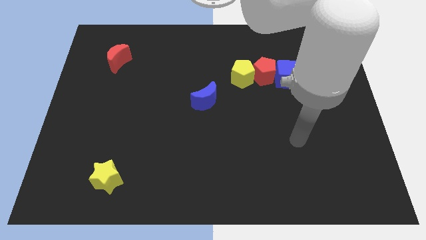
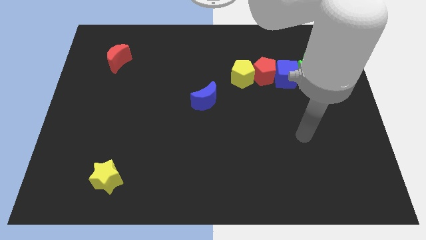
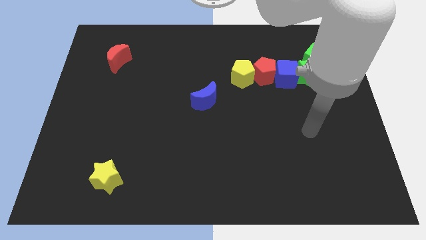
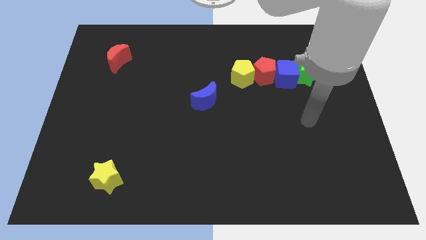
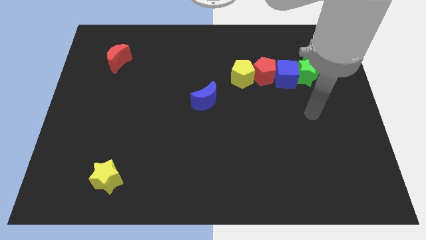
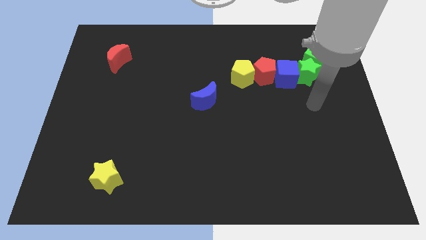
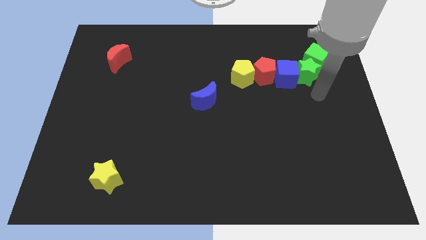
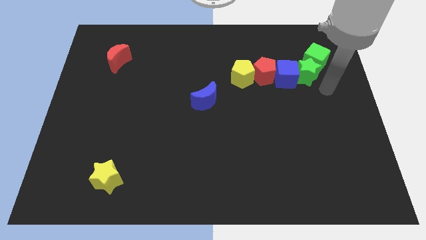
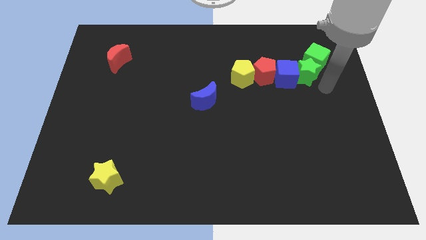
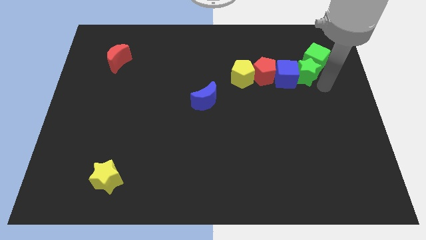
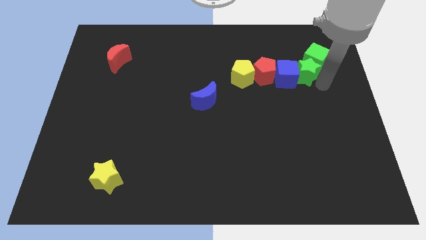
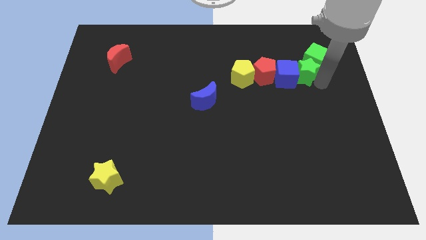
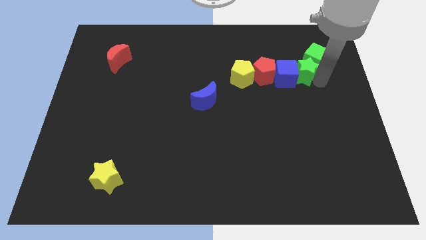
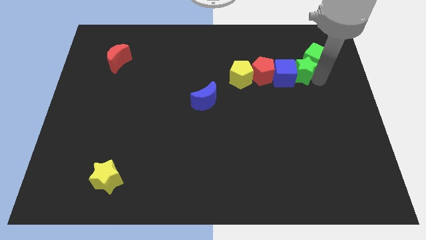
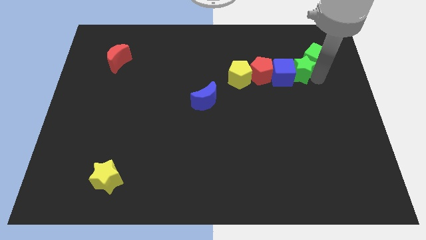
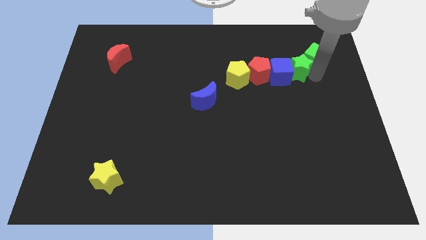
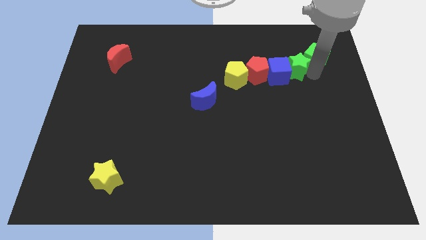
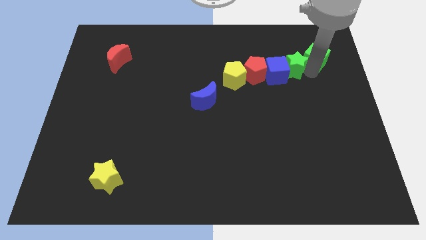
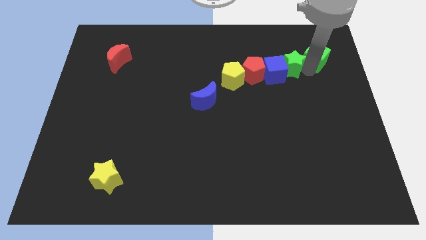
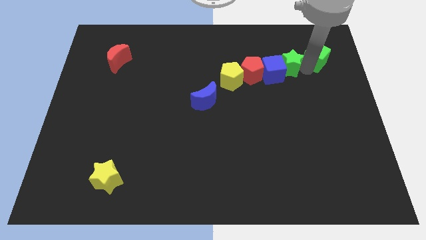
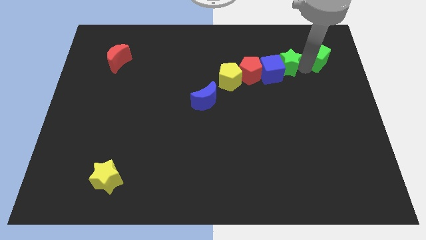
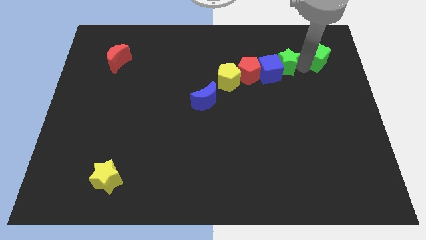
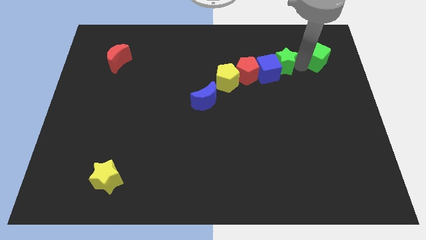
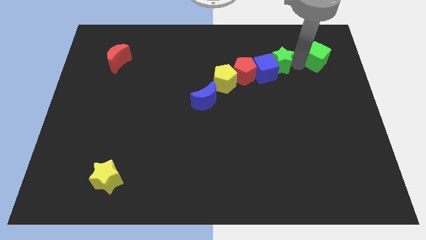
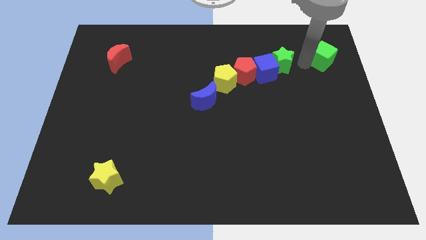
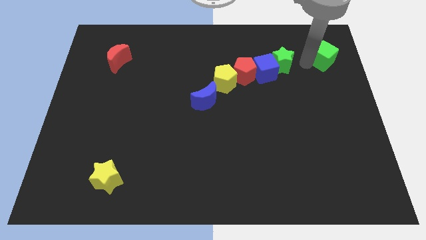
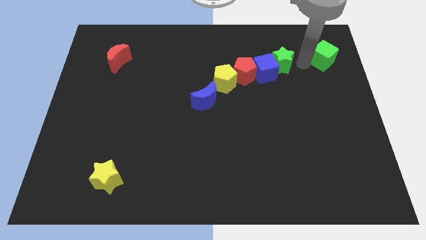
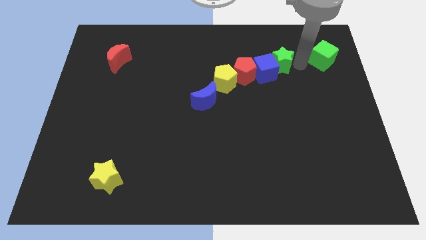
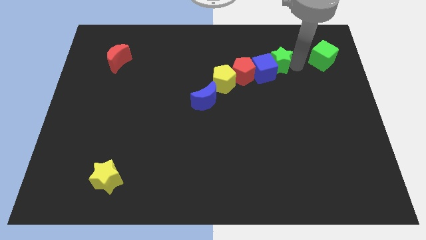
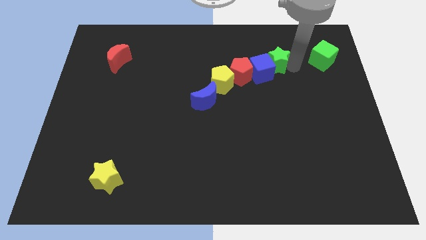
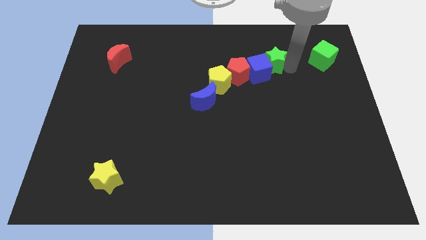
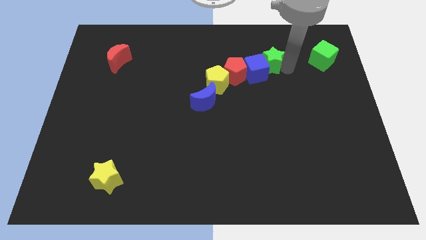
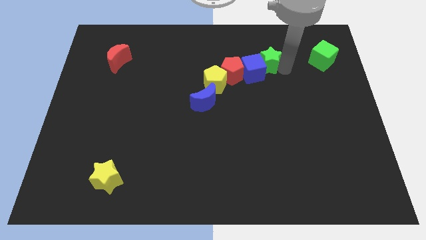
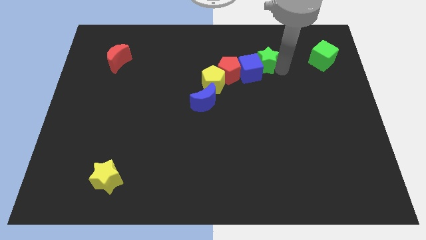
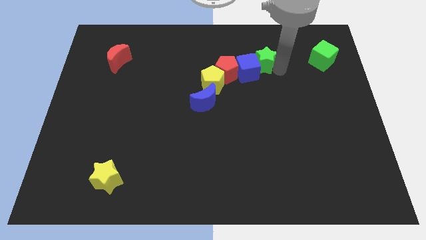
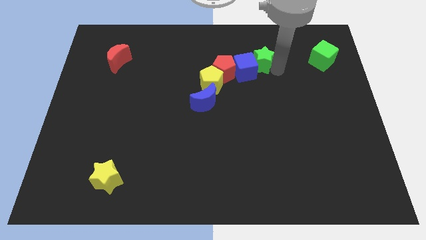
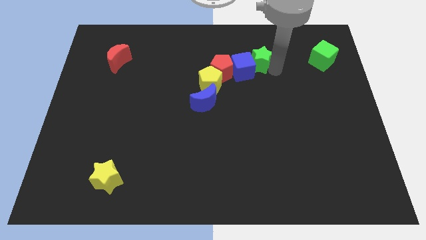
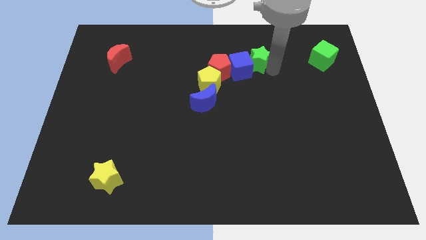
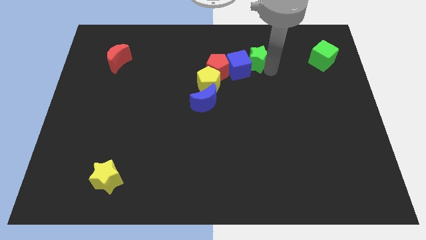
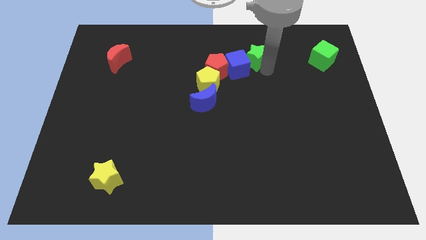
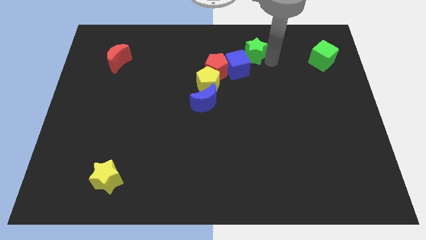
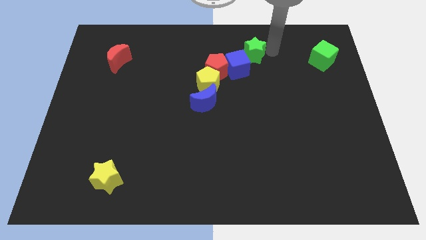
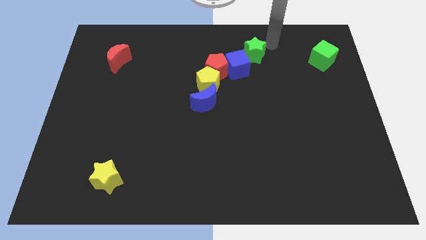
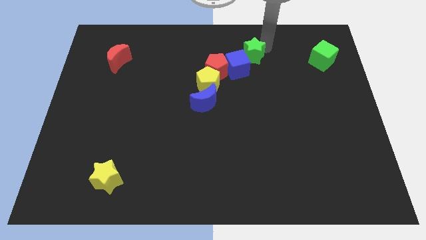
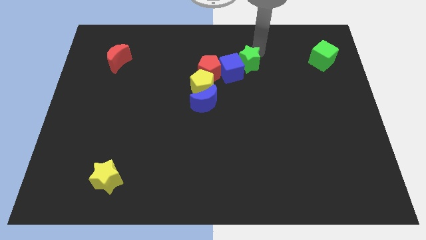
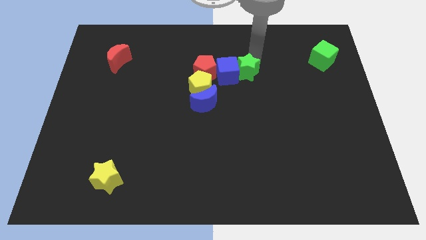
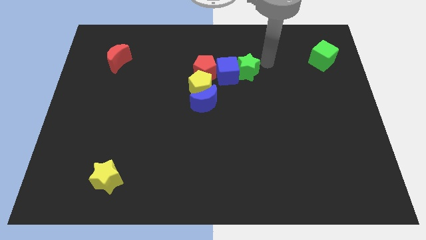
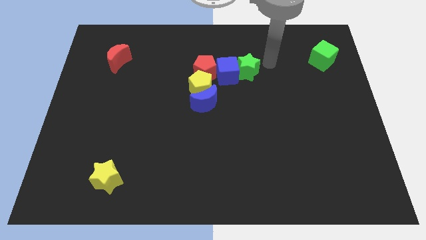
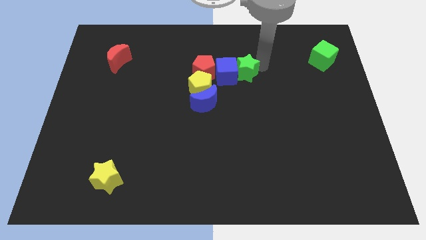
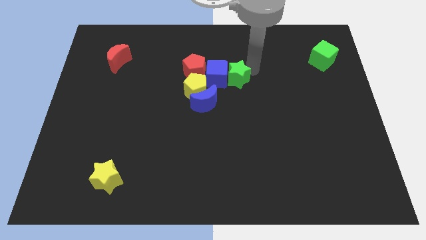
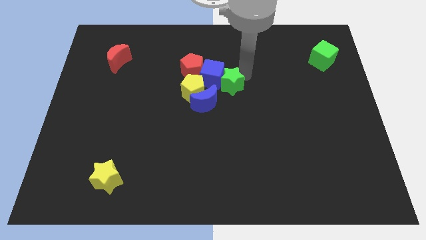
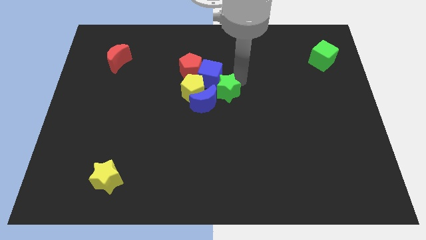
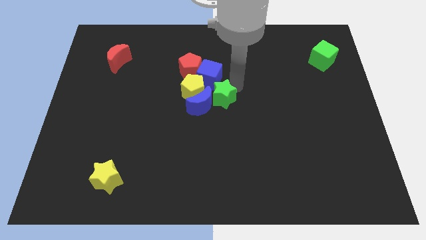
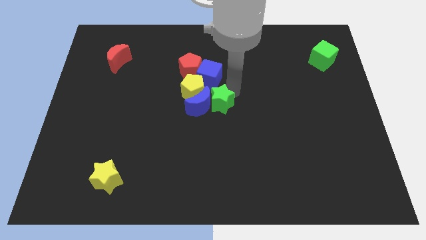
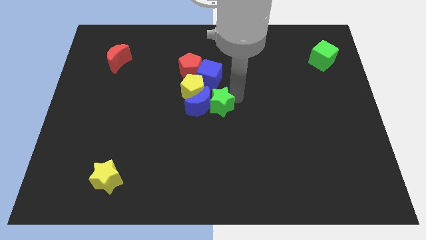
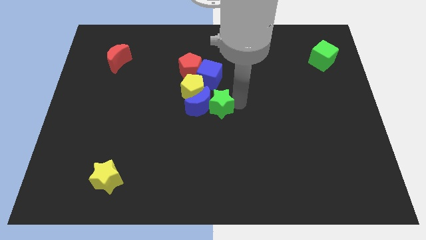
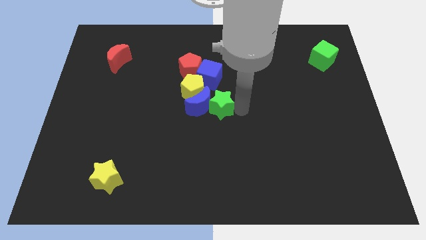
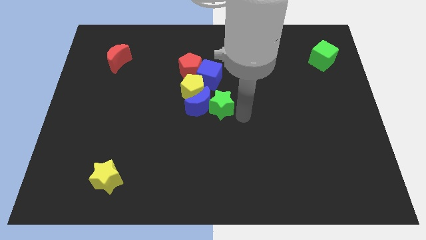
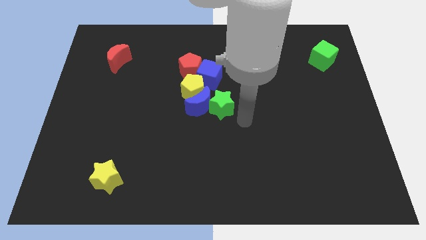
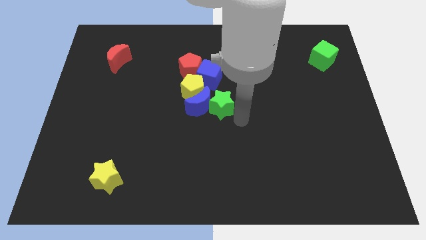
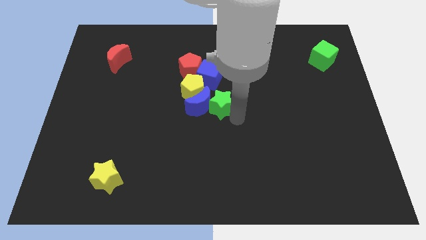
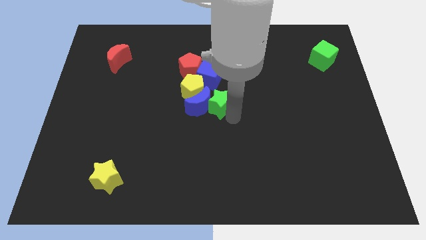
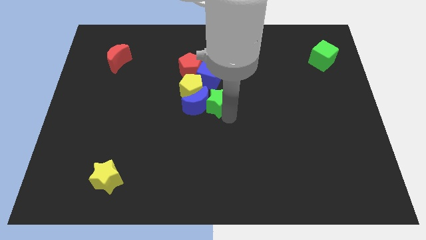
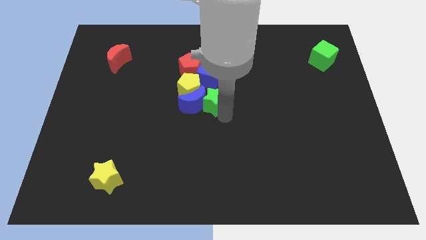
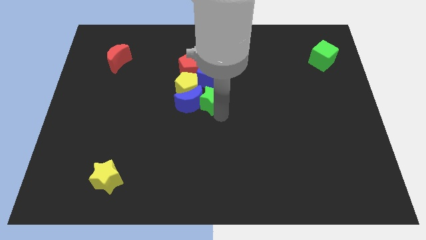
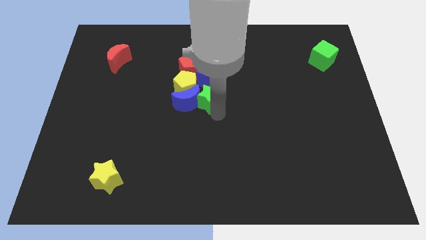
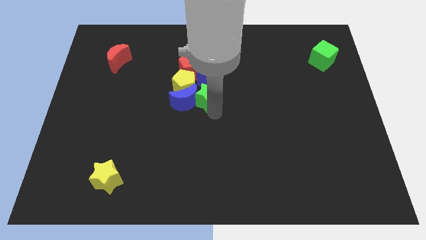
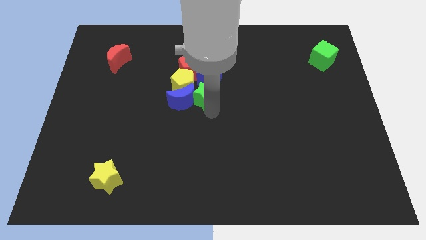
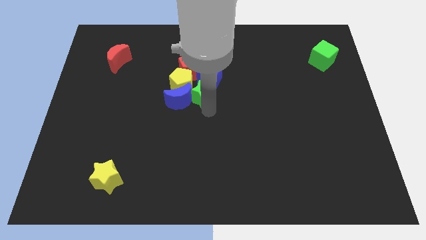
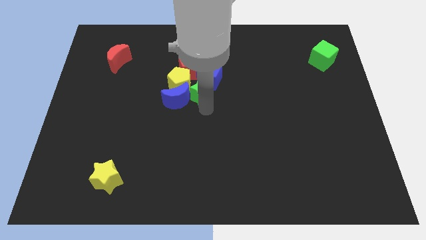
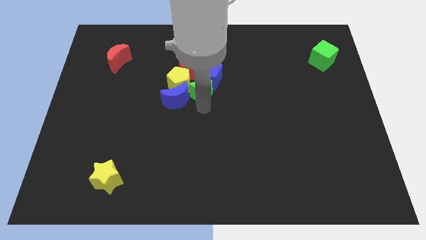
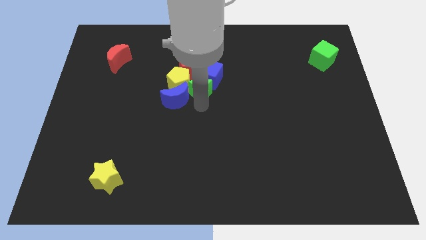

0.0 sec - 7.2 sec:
push the green star next to the yellow pentagon

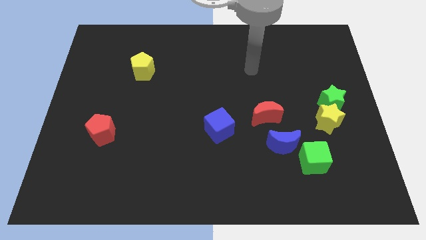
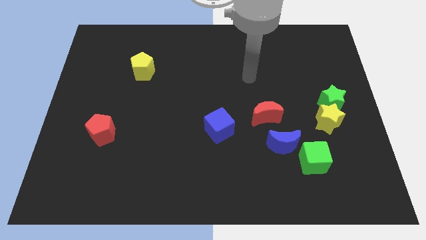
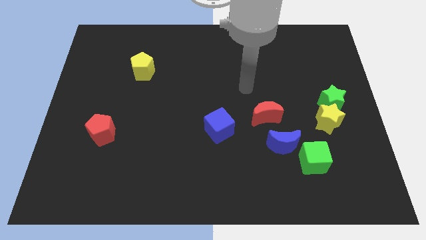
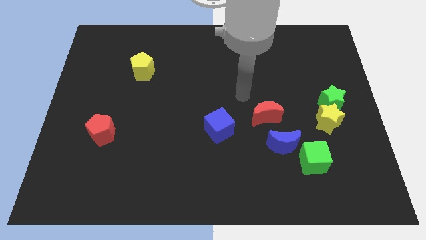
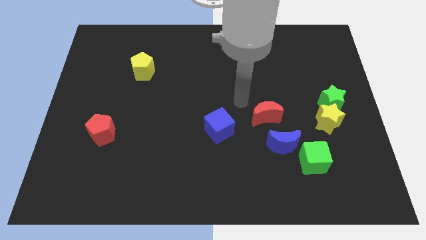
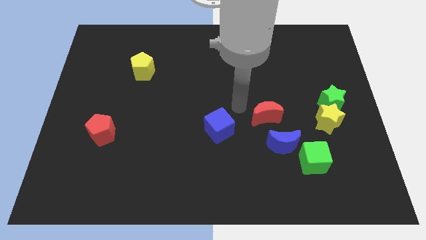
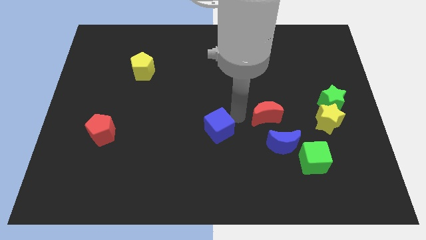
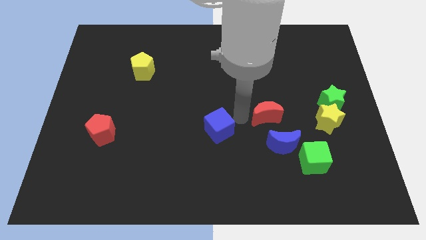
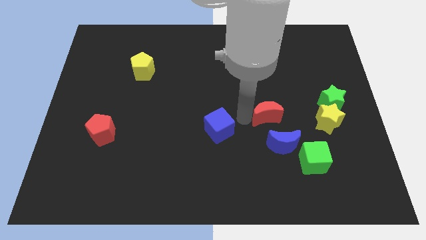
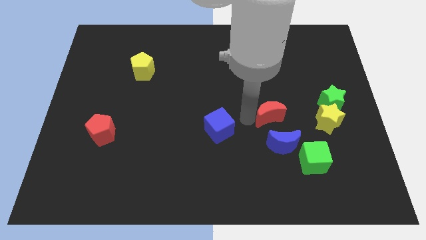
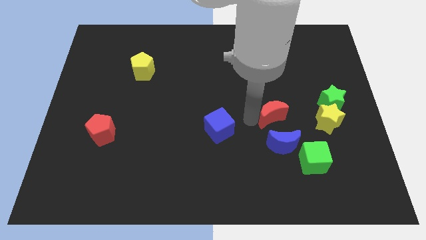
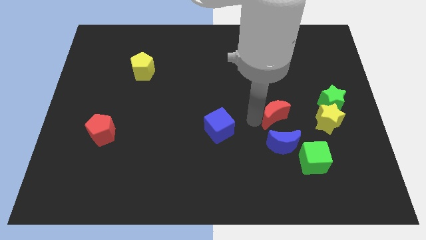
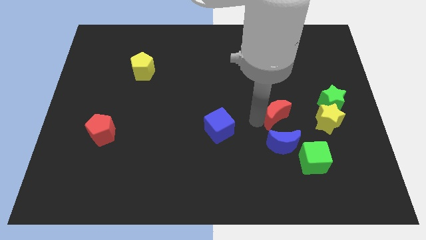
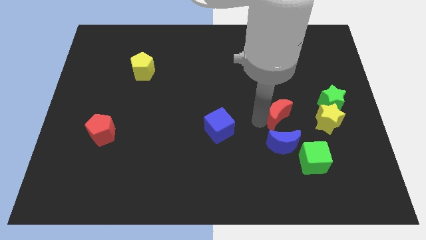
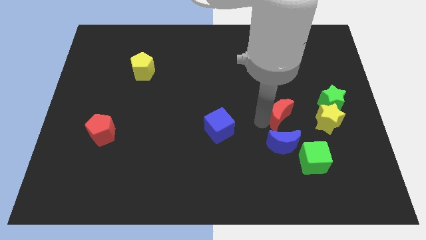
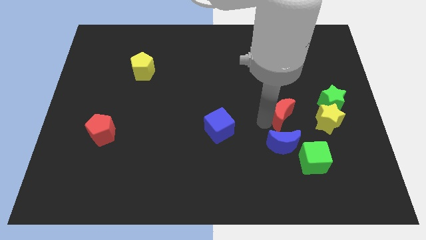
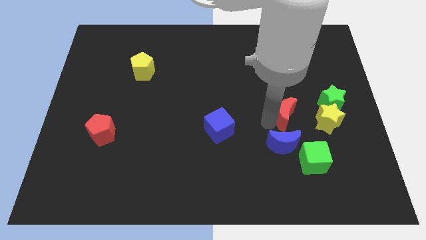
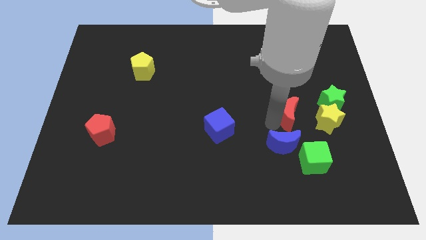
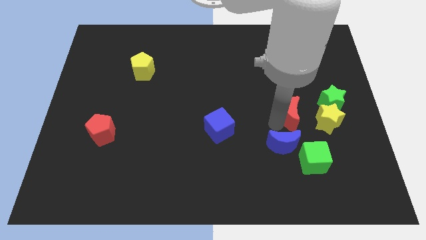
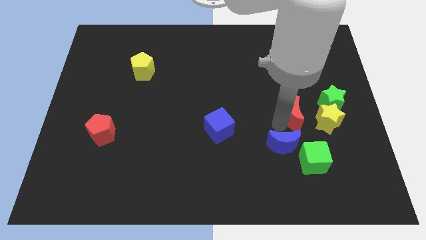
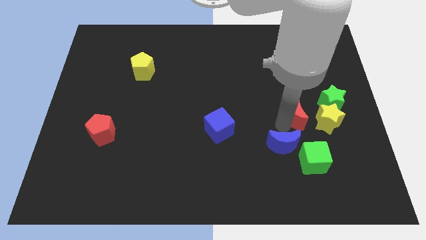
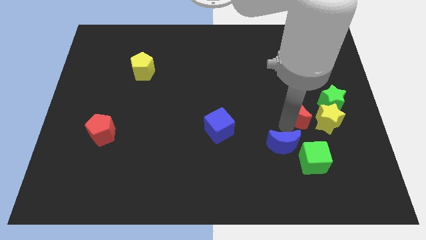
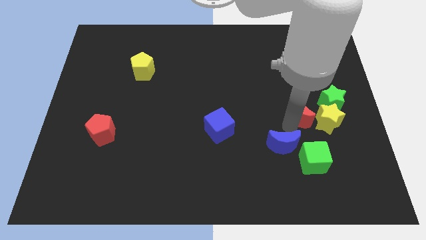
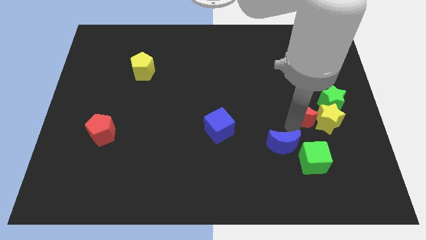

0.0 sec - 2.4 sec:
push the red moon to the yellow star
